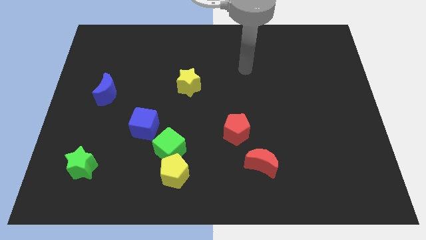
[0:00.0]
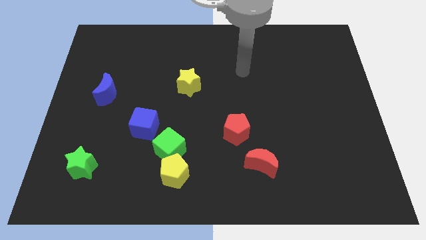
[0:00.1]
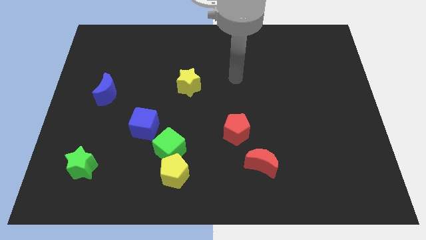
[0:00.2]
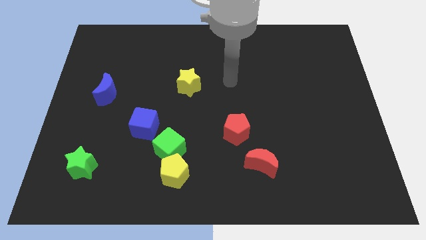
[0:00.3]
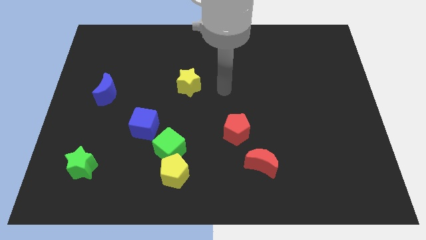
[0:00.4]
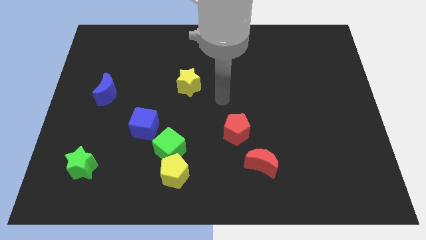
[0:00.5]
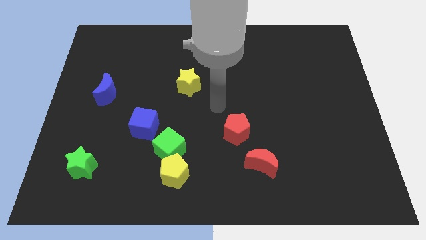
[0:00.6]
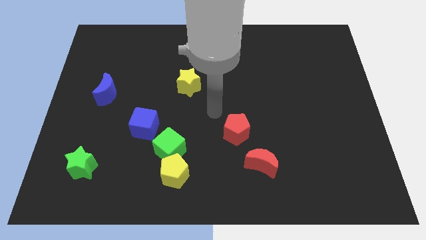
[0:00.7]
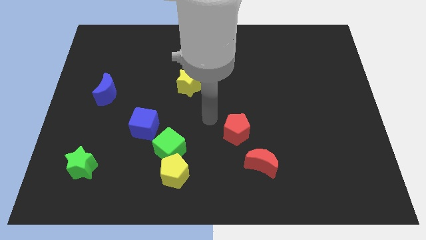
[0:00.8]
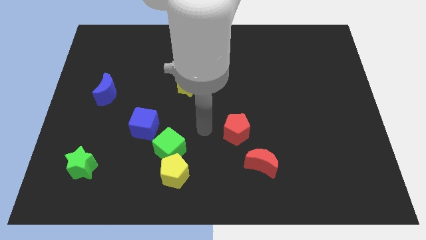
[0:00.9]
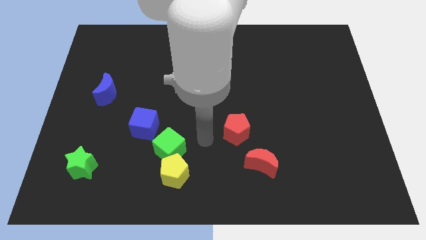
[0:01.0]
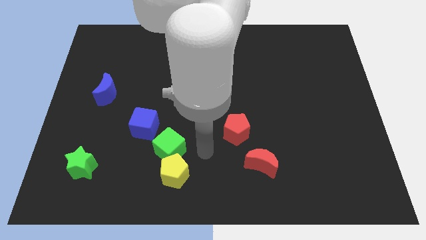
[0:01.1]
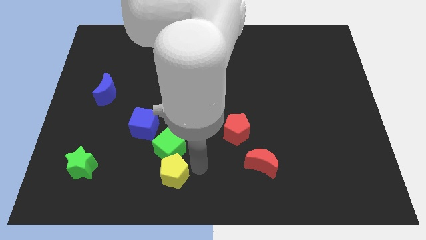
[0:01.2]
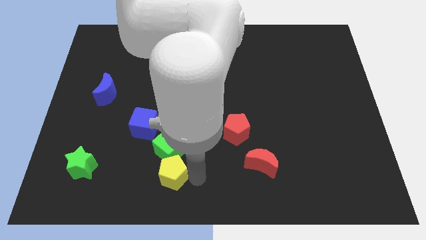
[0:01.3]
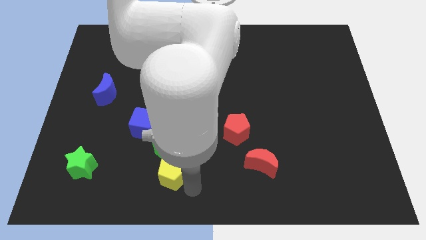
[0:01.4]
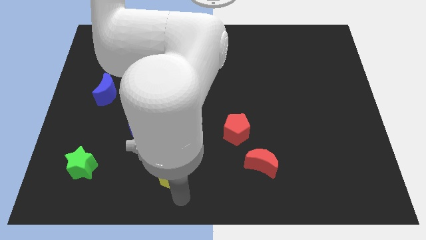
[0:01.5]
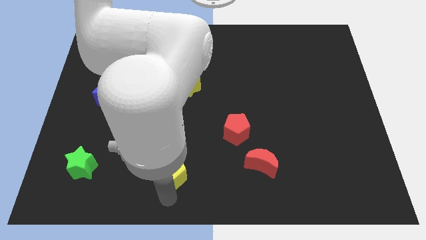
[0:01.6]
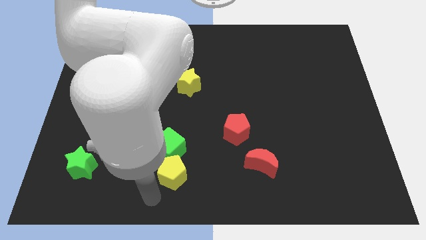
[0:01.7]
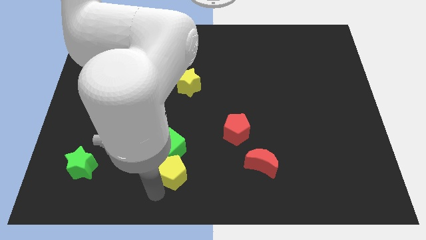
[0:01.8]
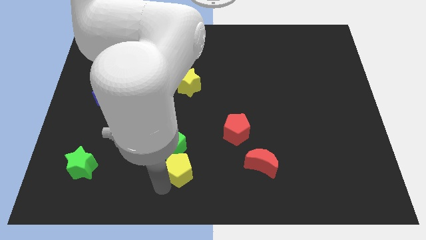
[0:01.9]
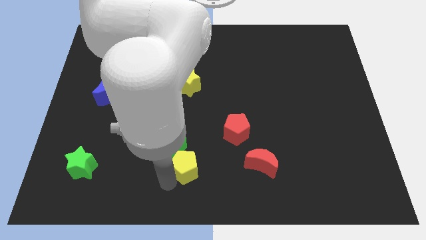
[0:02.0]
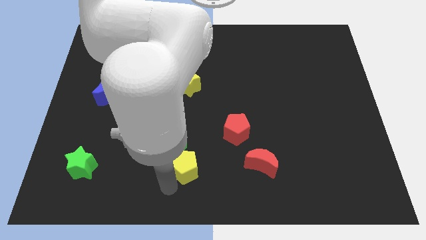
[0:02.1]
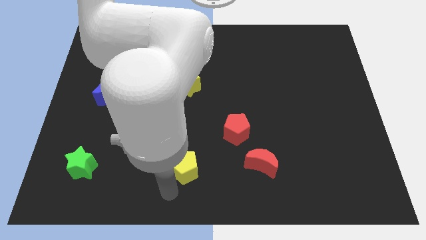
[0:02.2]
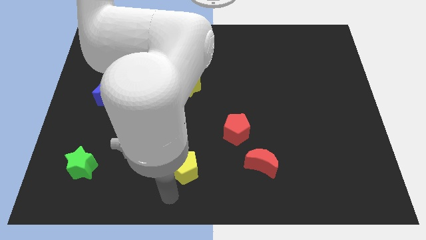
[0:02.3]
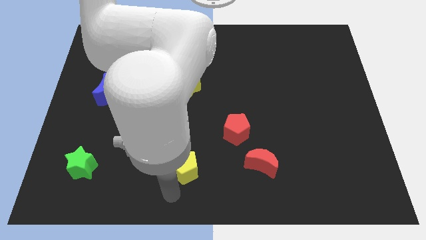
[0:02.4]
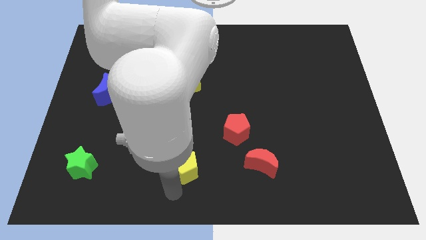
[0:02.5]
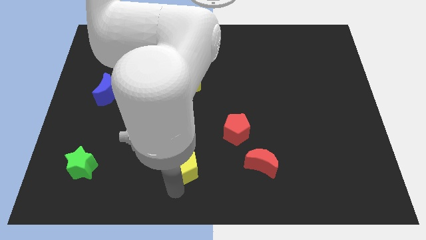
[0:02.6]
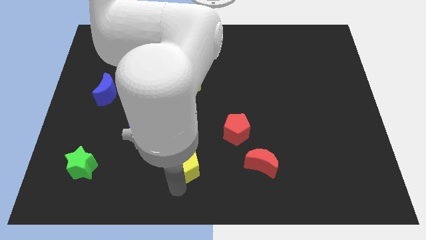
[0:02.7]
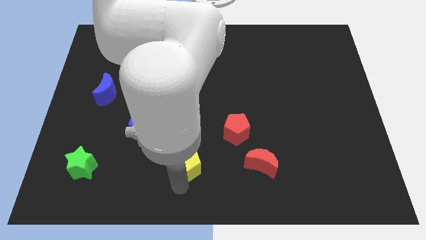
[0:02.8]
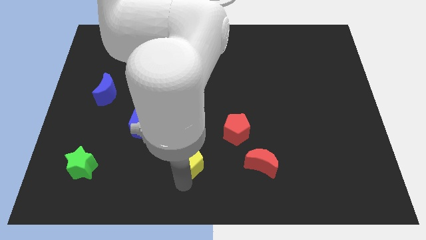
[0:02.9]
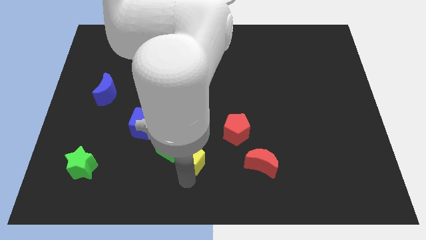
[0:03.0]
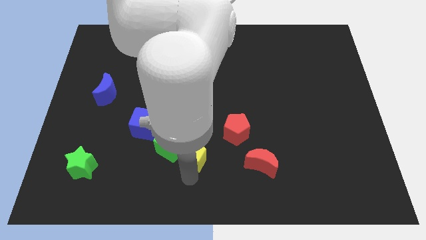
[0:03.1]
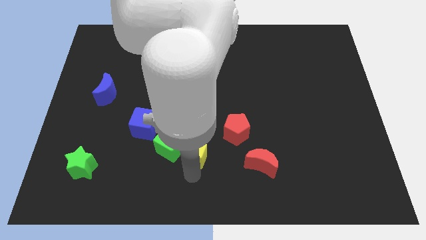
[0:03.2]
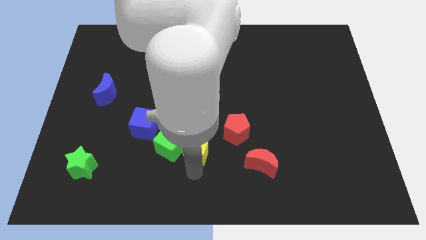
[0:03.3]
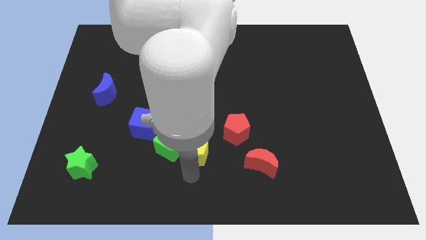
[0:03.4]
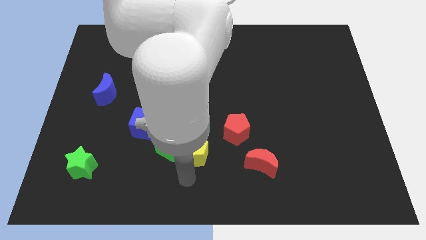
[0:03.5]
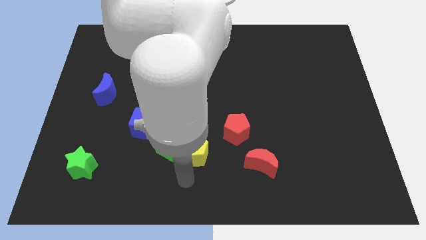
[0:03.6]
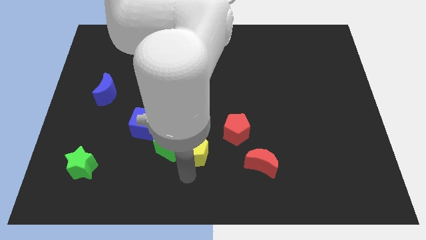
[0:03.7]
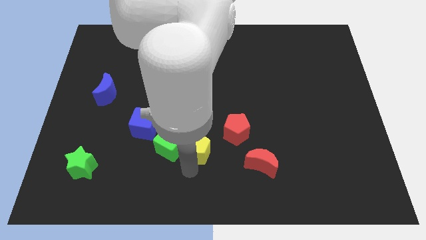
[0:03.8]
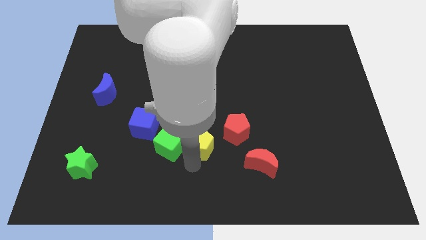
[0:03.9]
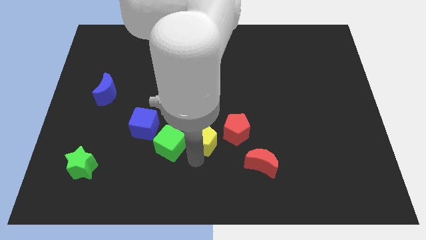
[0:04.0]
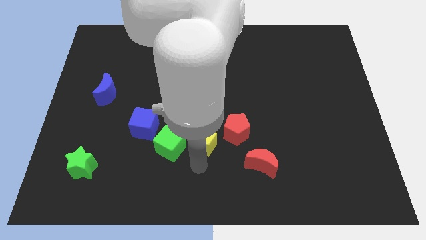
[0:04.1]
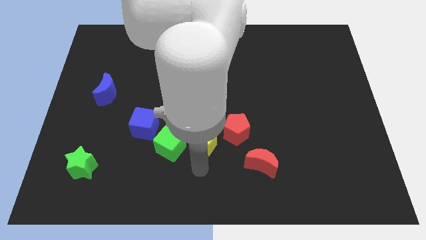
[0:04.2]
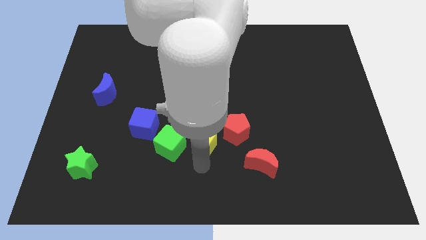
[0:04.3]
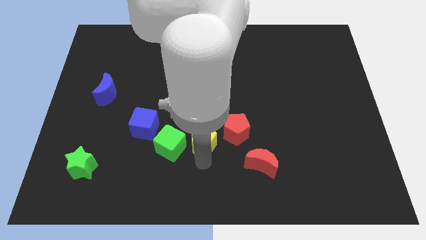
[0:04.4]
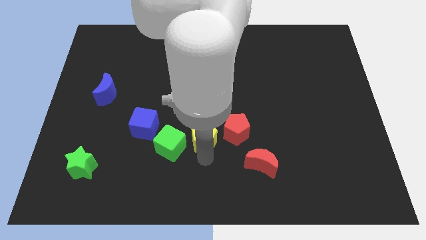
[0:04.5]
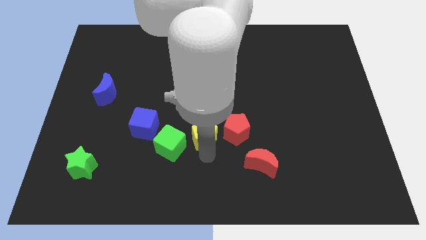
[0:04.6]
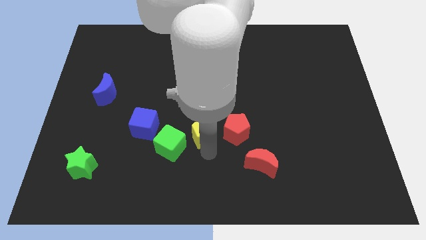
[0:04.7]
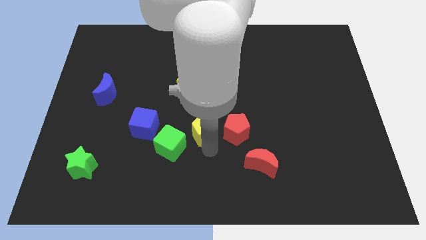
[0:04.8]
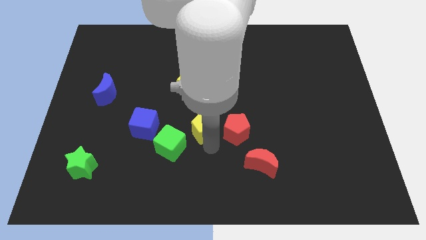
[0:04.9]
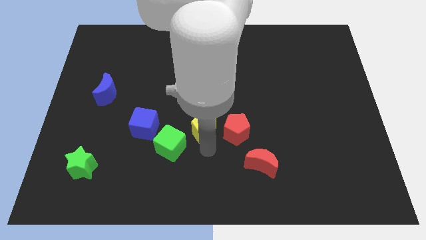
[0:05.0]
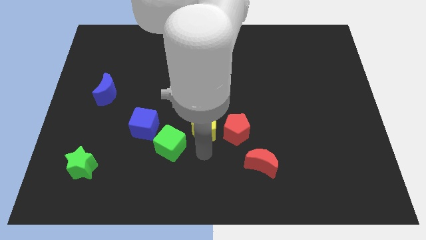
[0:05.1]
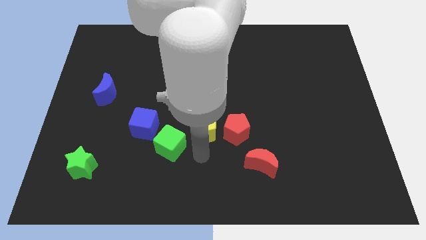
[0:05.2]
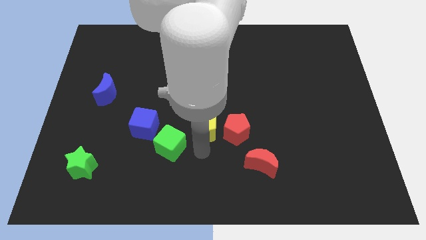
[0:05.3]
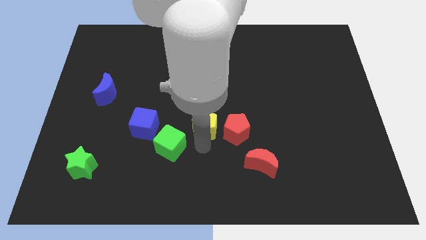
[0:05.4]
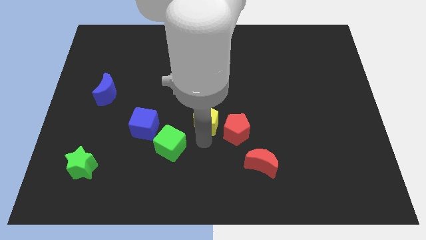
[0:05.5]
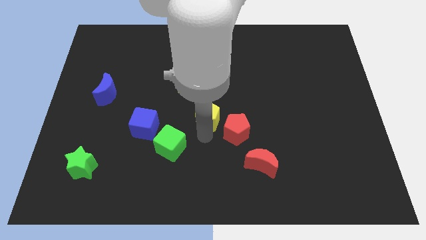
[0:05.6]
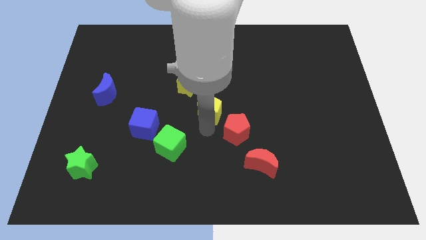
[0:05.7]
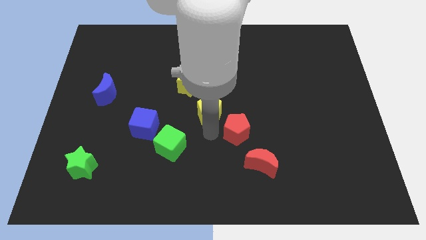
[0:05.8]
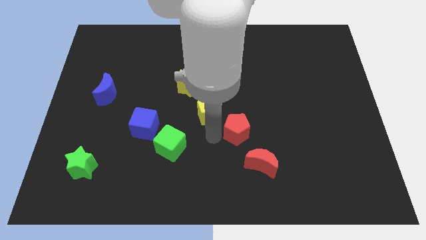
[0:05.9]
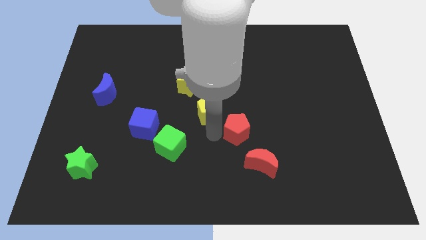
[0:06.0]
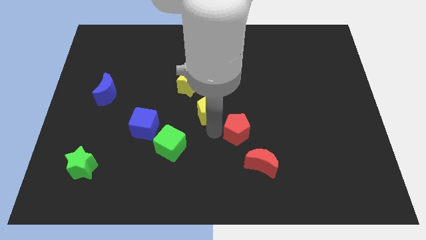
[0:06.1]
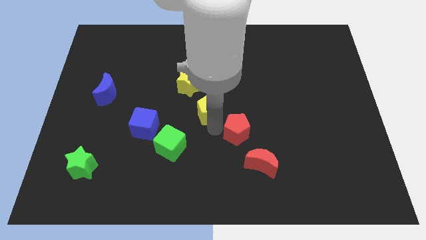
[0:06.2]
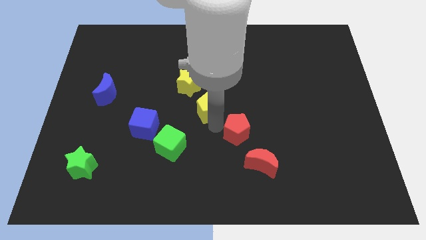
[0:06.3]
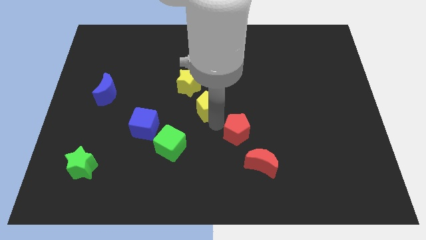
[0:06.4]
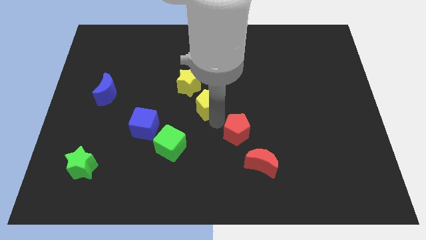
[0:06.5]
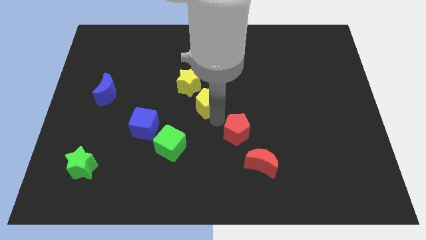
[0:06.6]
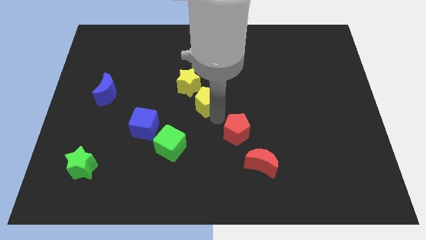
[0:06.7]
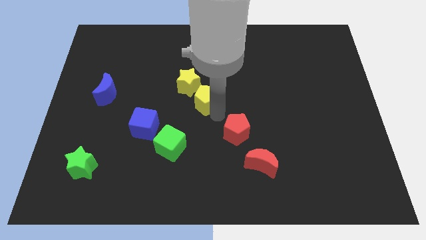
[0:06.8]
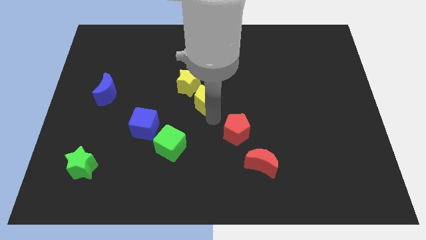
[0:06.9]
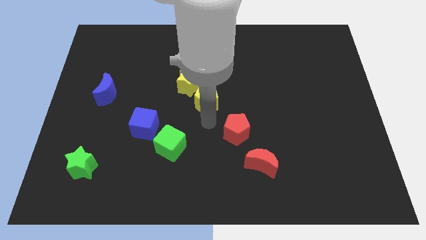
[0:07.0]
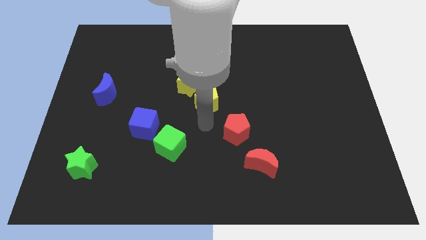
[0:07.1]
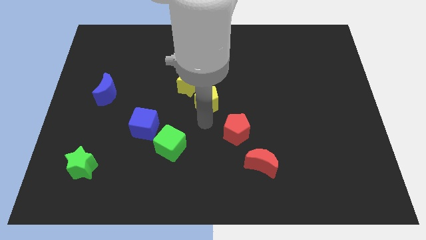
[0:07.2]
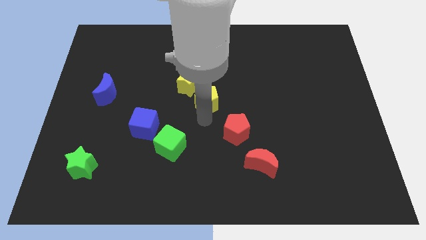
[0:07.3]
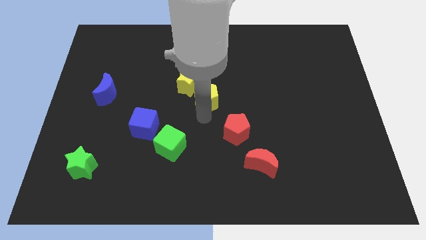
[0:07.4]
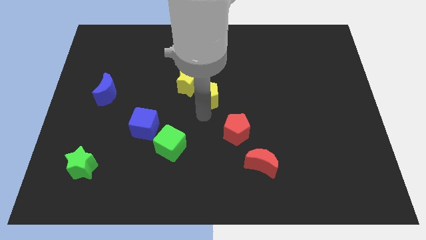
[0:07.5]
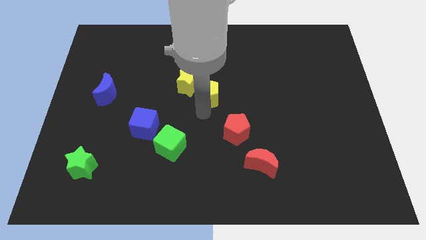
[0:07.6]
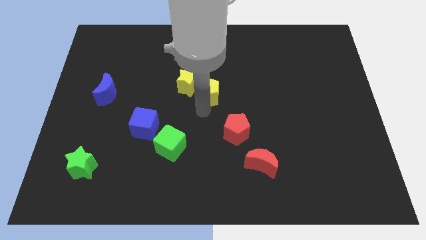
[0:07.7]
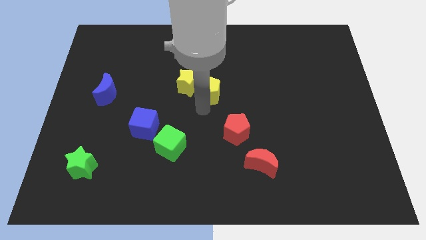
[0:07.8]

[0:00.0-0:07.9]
slide the yellow pentagon upwards

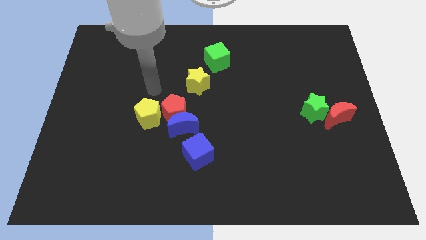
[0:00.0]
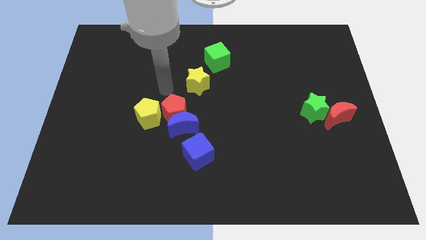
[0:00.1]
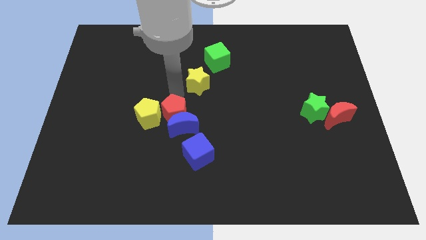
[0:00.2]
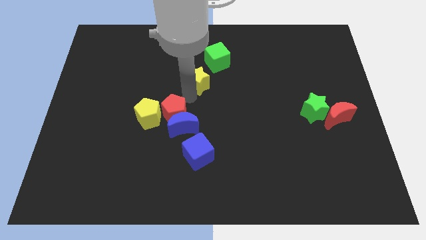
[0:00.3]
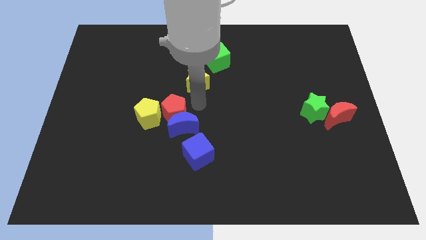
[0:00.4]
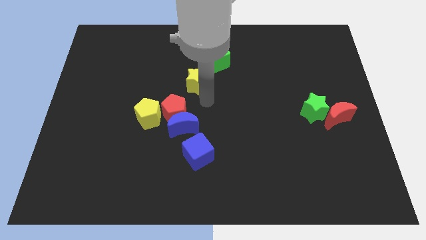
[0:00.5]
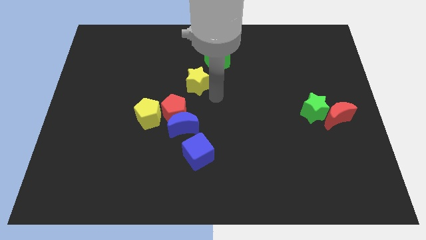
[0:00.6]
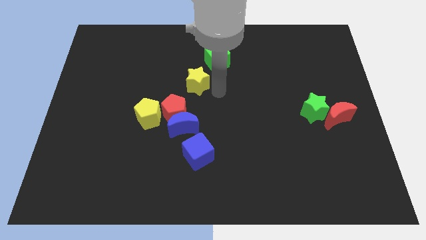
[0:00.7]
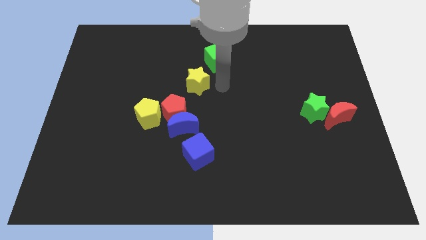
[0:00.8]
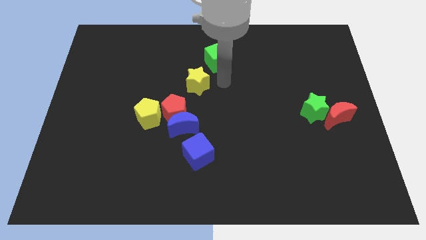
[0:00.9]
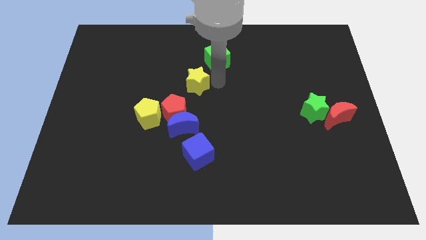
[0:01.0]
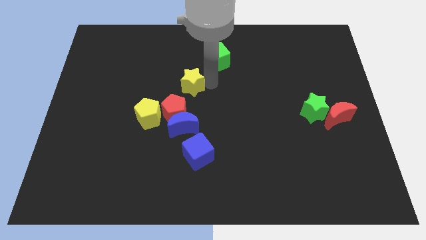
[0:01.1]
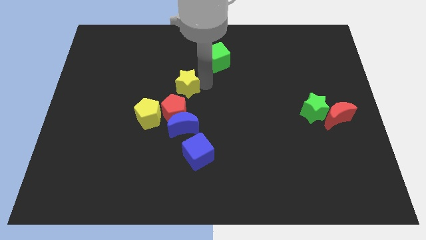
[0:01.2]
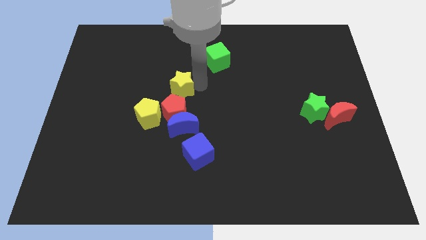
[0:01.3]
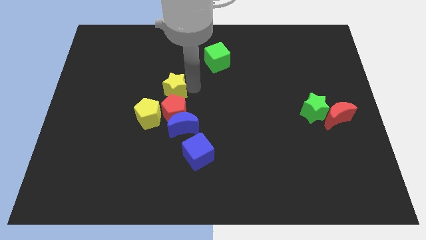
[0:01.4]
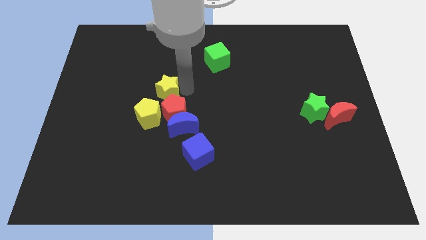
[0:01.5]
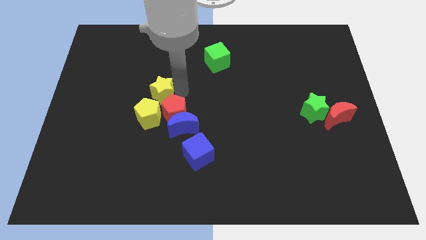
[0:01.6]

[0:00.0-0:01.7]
slightly push the yellow star downwards and to the left diagonally
